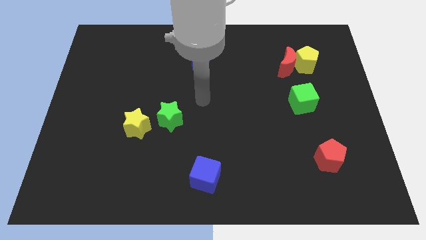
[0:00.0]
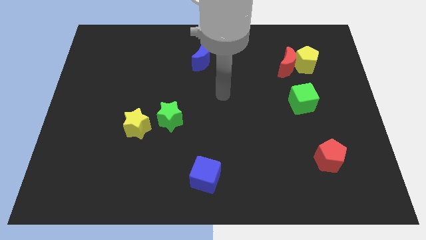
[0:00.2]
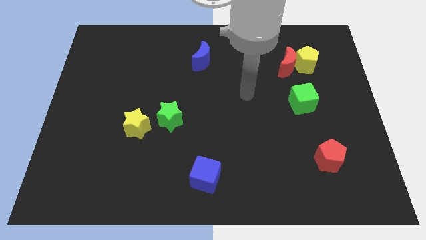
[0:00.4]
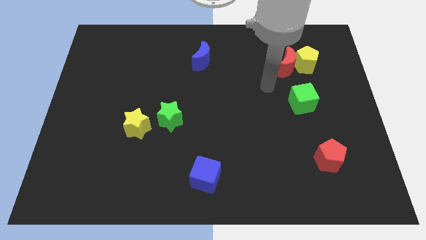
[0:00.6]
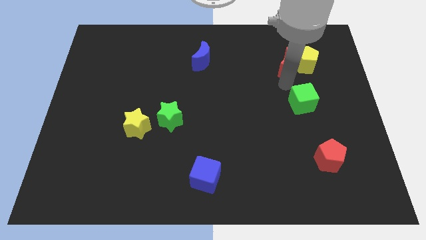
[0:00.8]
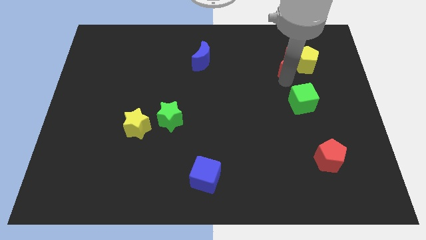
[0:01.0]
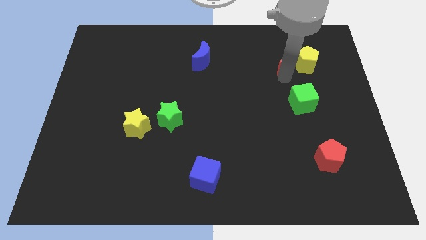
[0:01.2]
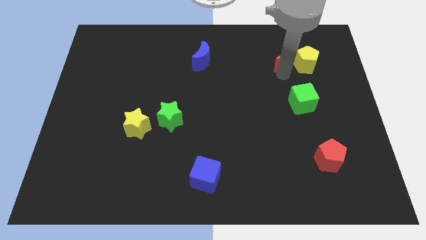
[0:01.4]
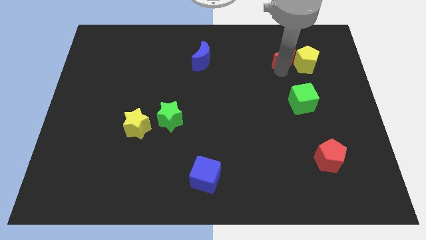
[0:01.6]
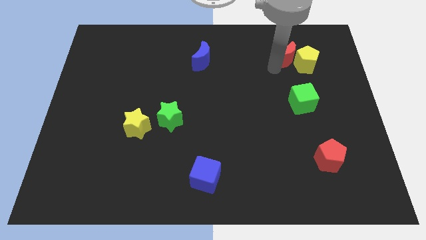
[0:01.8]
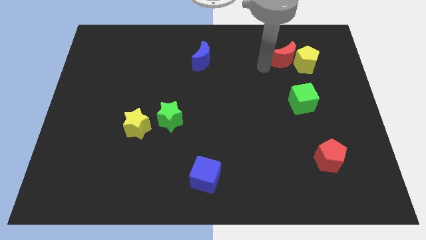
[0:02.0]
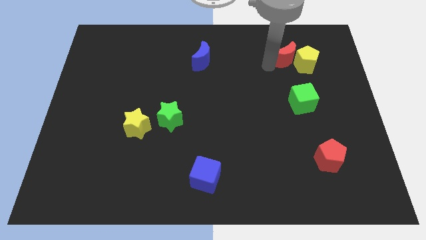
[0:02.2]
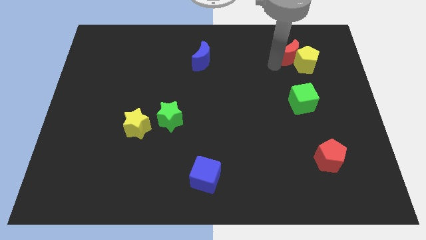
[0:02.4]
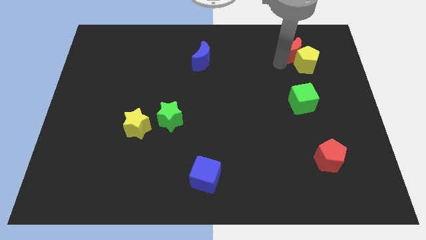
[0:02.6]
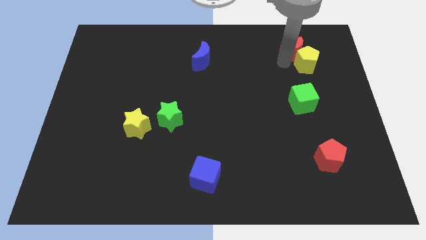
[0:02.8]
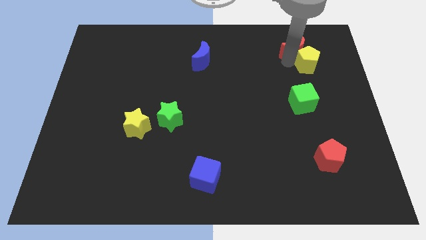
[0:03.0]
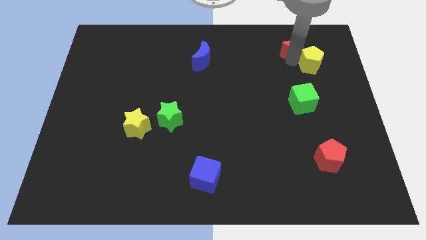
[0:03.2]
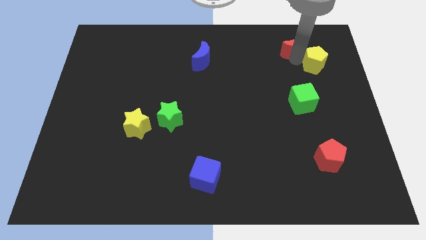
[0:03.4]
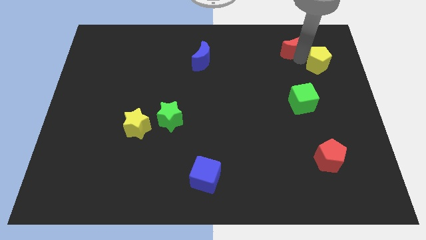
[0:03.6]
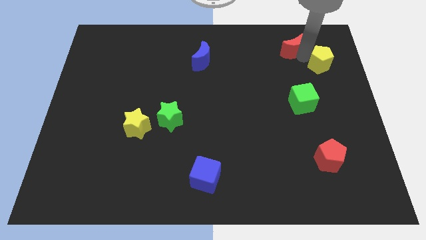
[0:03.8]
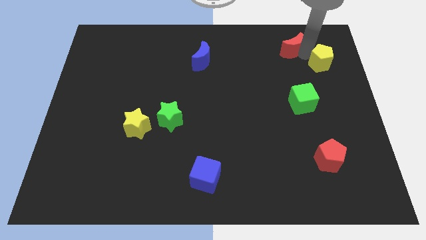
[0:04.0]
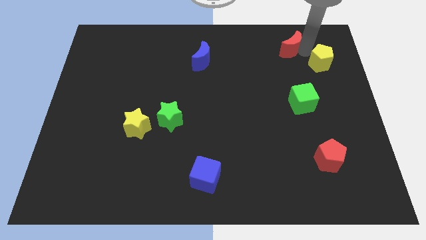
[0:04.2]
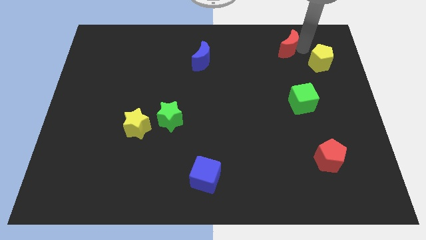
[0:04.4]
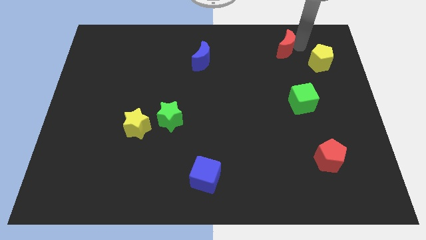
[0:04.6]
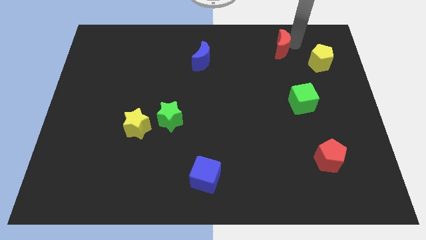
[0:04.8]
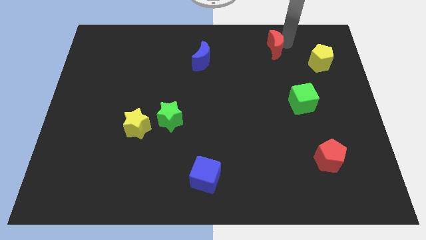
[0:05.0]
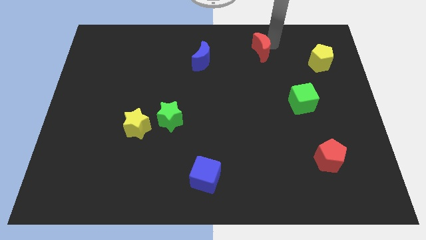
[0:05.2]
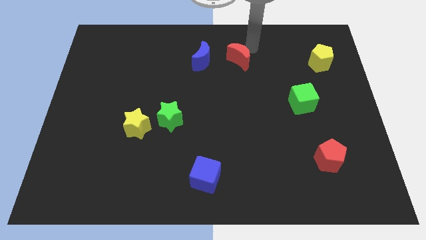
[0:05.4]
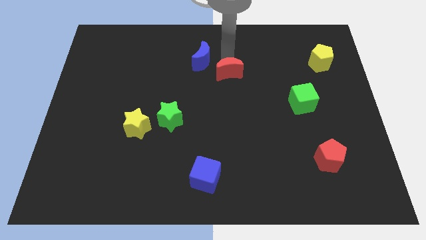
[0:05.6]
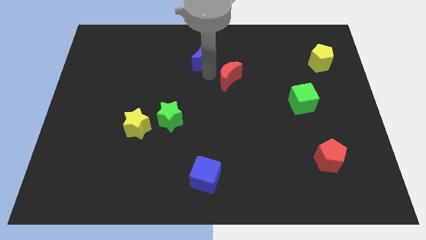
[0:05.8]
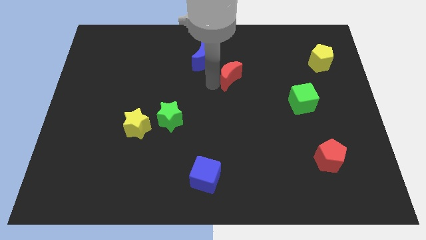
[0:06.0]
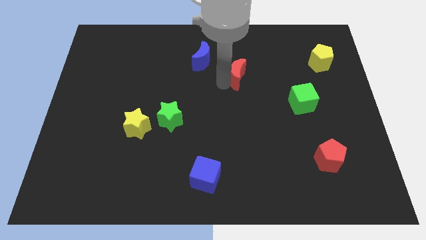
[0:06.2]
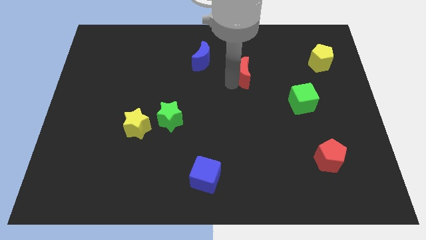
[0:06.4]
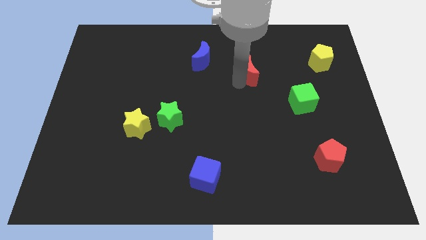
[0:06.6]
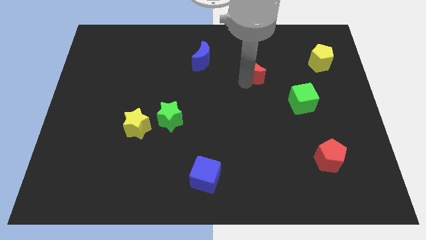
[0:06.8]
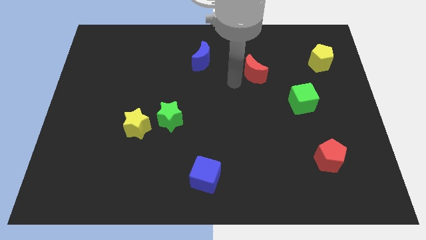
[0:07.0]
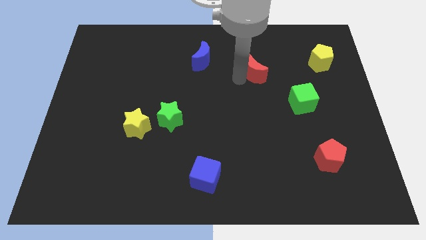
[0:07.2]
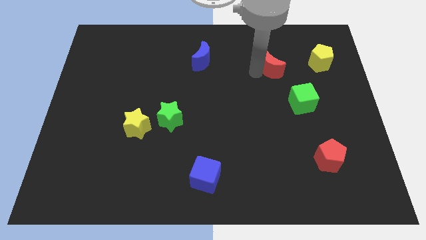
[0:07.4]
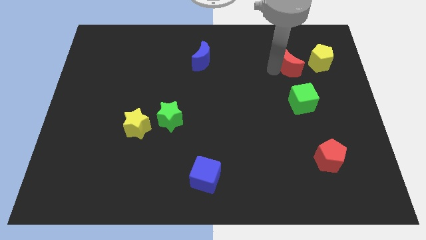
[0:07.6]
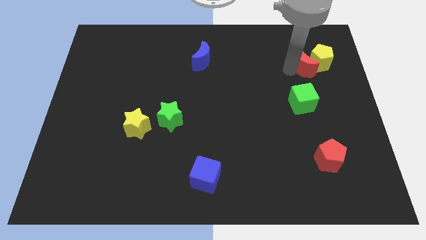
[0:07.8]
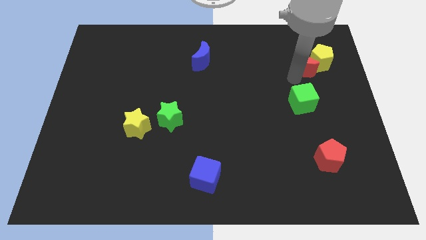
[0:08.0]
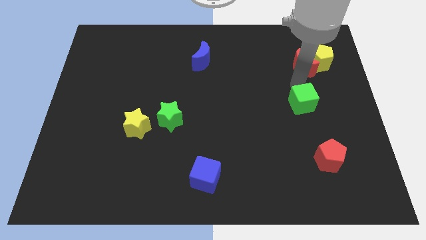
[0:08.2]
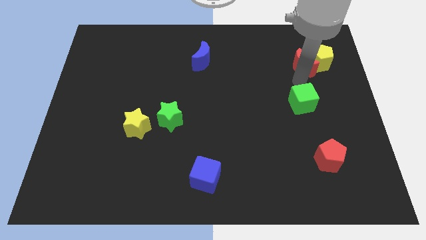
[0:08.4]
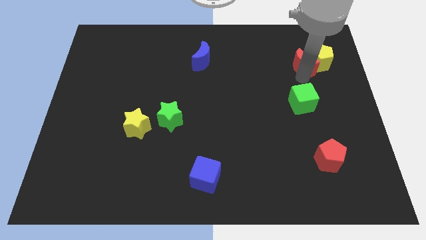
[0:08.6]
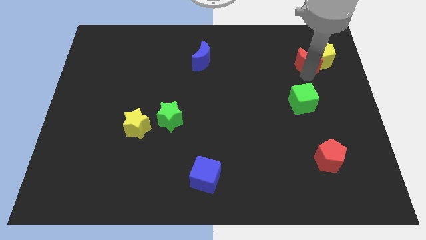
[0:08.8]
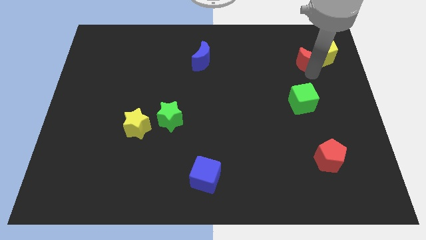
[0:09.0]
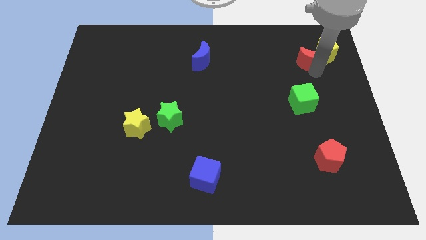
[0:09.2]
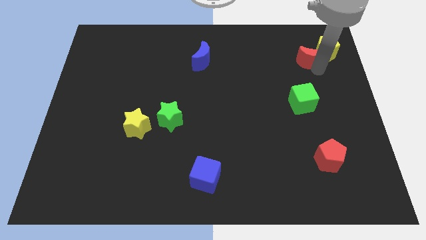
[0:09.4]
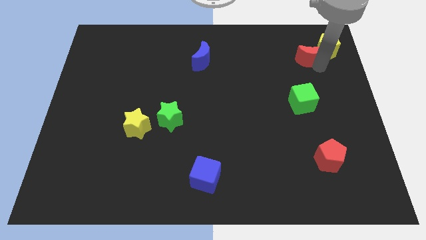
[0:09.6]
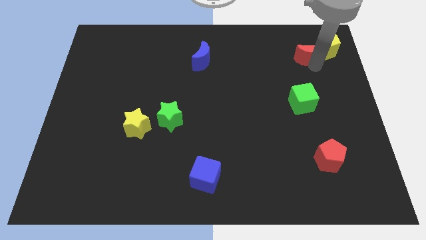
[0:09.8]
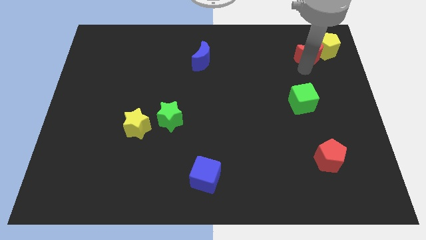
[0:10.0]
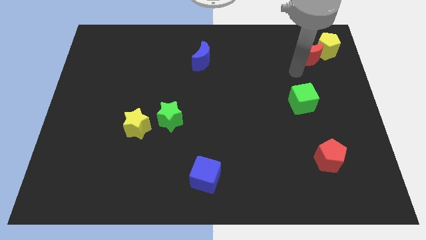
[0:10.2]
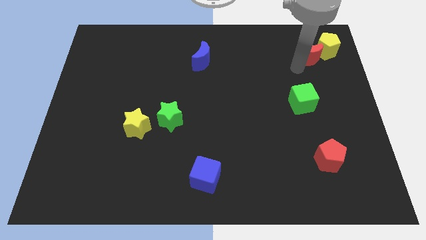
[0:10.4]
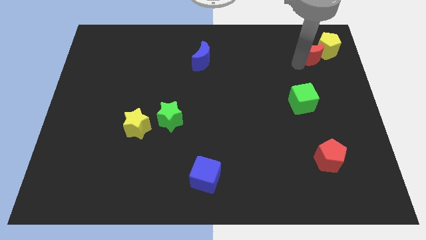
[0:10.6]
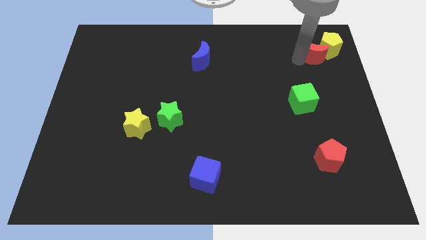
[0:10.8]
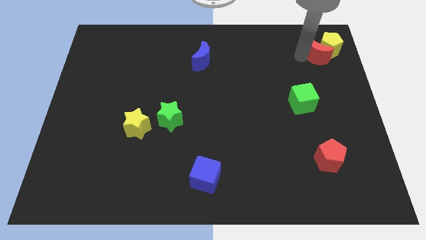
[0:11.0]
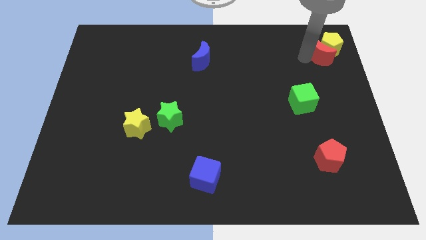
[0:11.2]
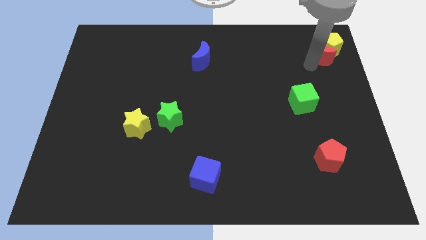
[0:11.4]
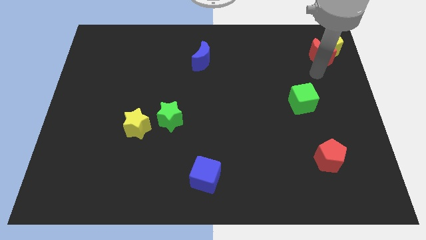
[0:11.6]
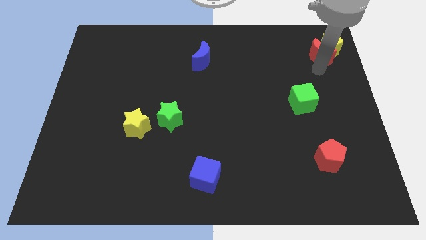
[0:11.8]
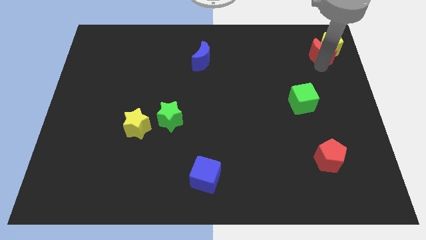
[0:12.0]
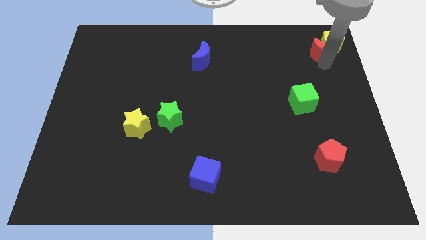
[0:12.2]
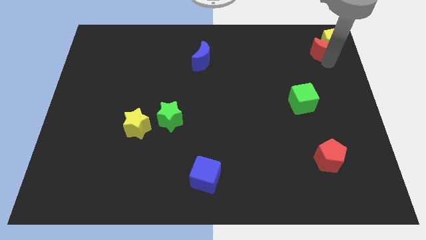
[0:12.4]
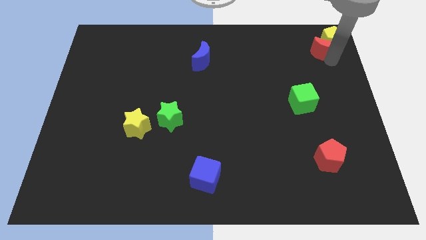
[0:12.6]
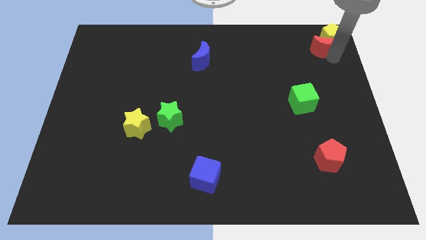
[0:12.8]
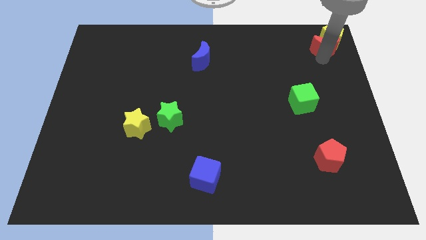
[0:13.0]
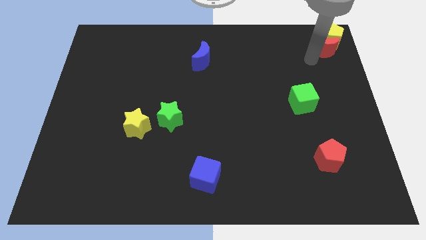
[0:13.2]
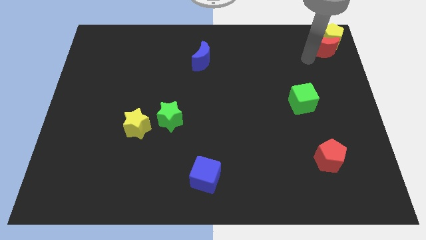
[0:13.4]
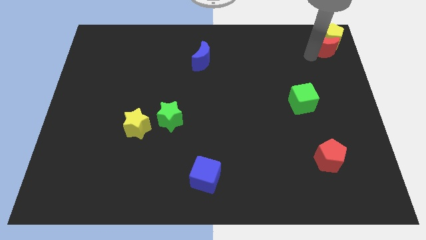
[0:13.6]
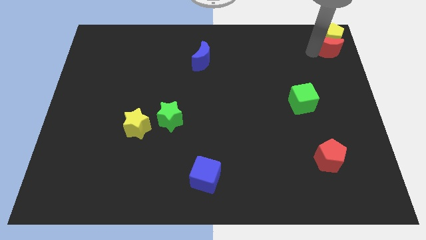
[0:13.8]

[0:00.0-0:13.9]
push the red moon to the top right
